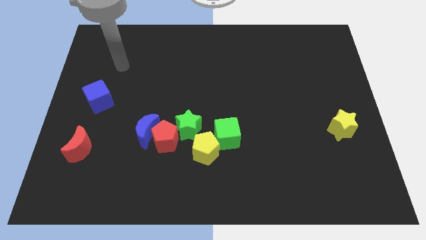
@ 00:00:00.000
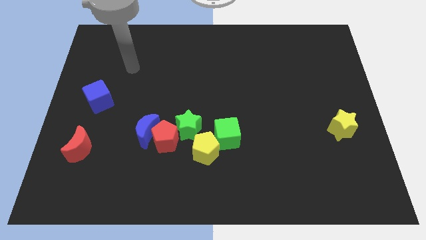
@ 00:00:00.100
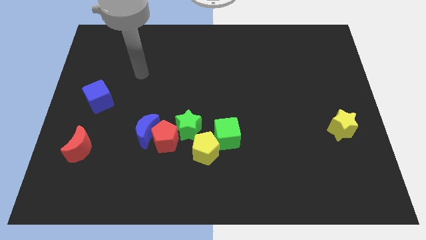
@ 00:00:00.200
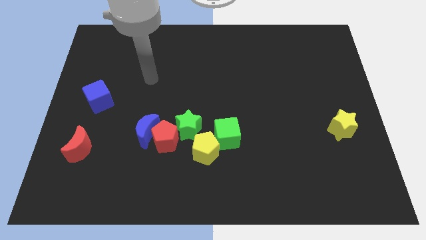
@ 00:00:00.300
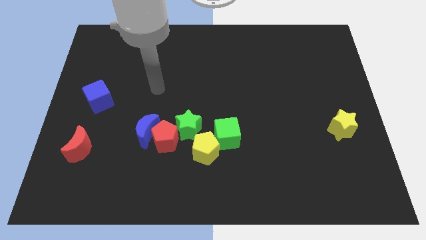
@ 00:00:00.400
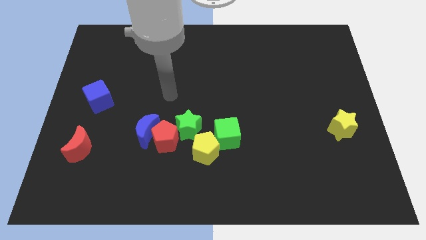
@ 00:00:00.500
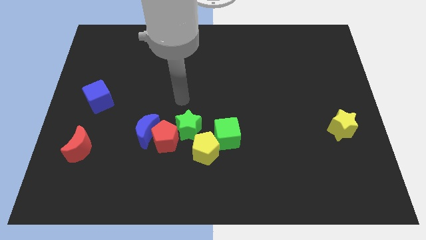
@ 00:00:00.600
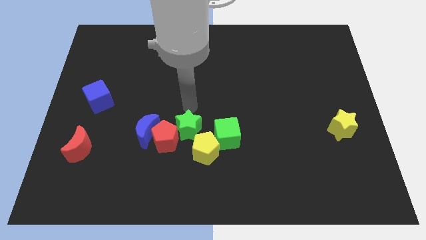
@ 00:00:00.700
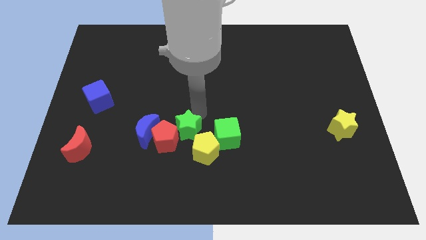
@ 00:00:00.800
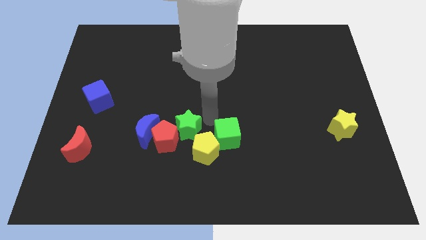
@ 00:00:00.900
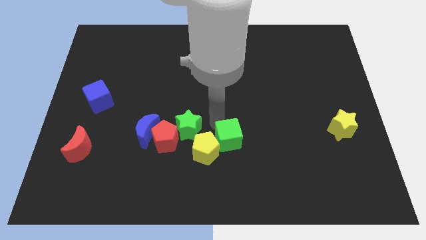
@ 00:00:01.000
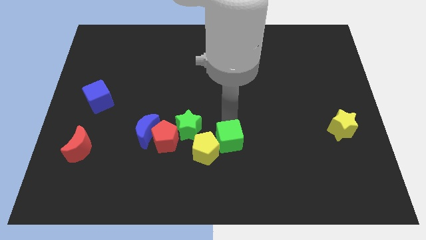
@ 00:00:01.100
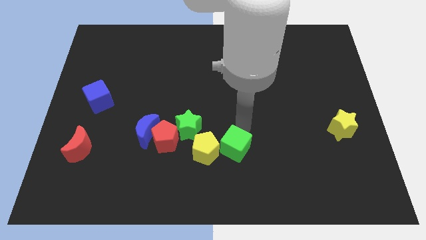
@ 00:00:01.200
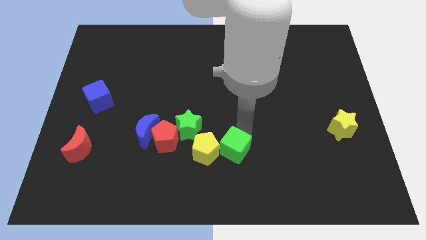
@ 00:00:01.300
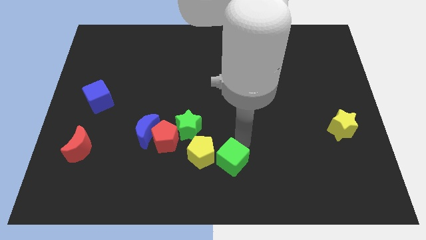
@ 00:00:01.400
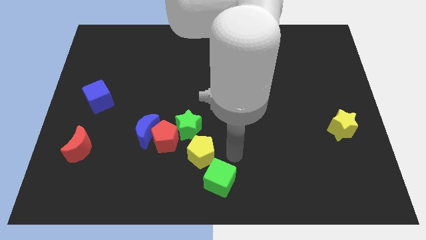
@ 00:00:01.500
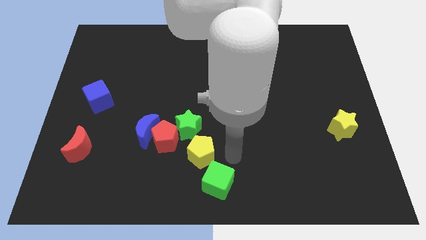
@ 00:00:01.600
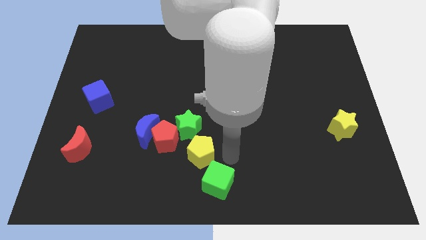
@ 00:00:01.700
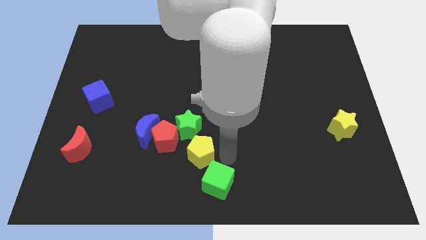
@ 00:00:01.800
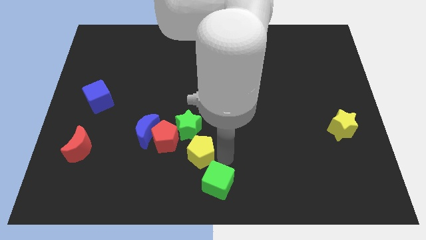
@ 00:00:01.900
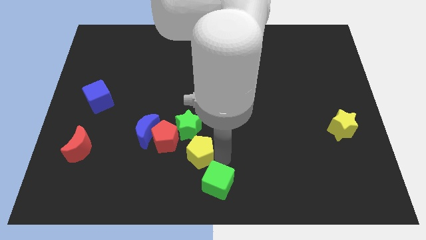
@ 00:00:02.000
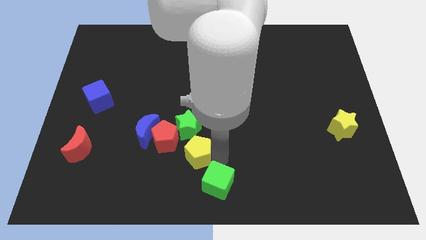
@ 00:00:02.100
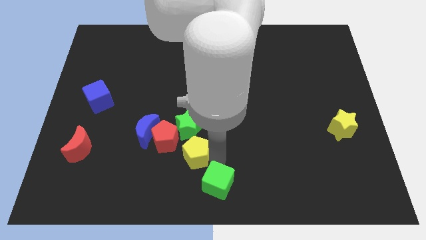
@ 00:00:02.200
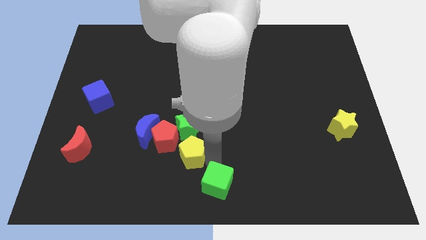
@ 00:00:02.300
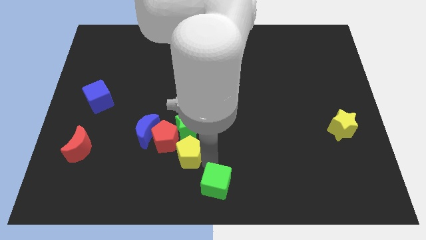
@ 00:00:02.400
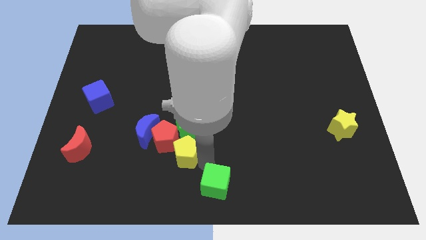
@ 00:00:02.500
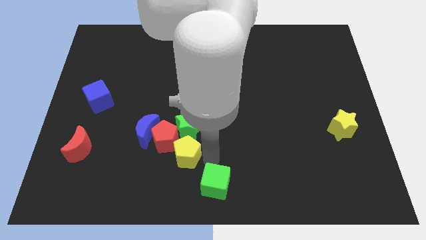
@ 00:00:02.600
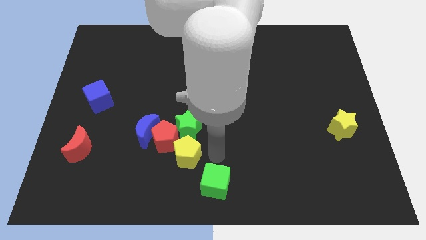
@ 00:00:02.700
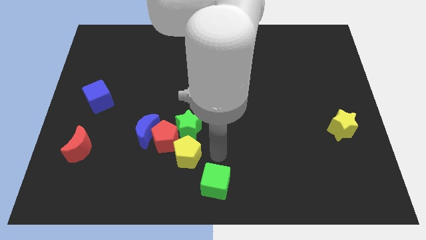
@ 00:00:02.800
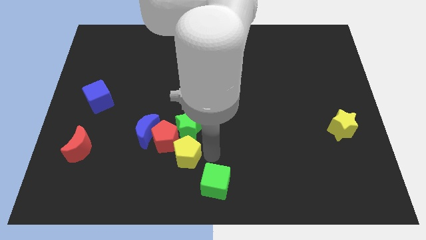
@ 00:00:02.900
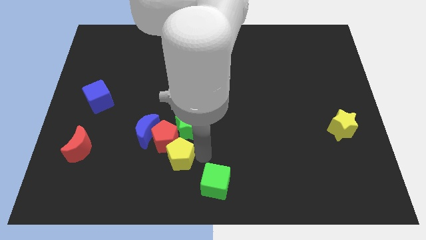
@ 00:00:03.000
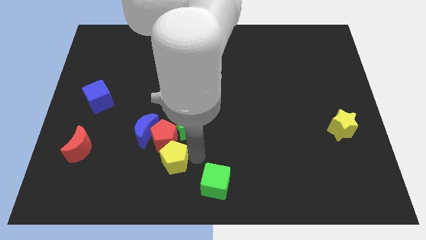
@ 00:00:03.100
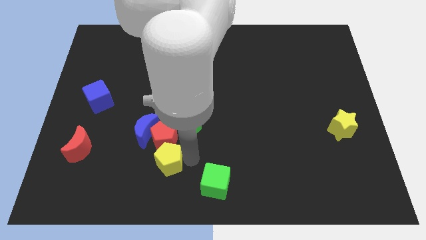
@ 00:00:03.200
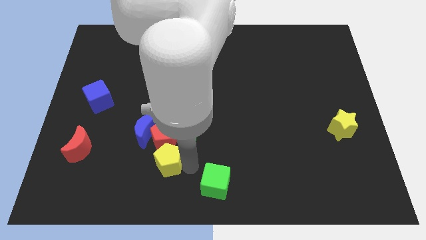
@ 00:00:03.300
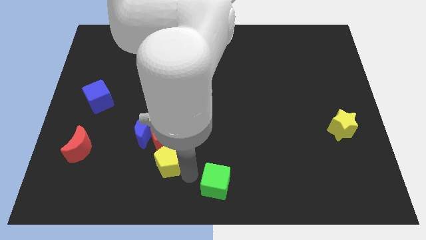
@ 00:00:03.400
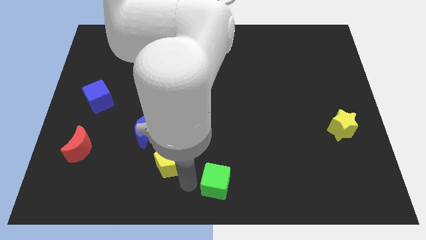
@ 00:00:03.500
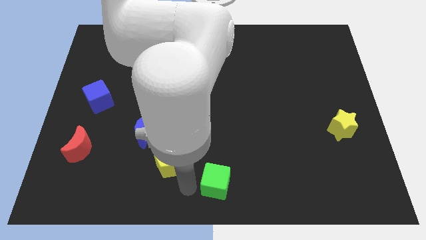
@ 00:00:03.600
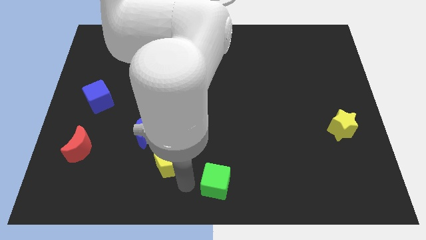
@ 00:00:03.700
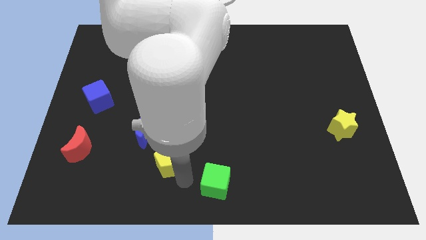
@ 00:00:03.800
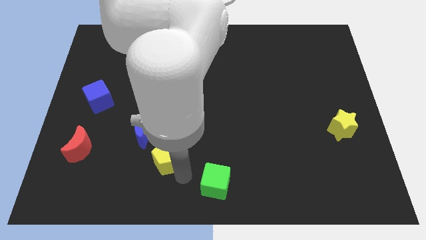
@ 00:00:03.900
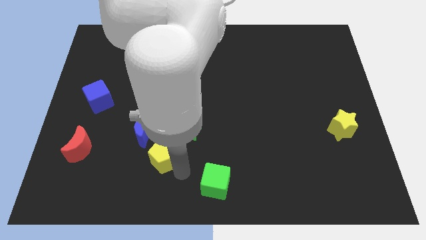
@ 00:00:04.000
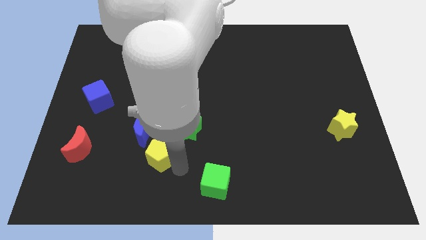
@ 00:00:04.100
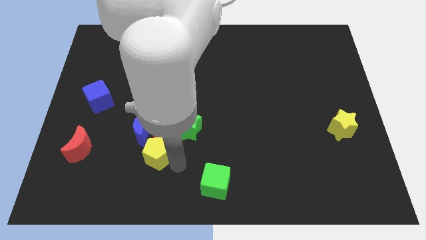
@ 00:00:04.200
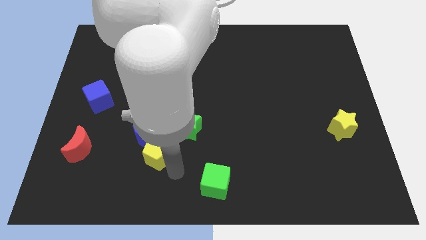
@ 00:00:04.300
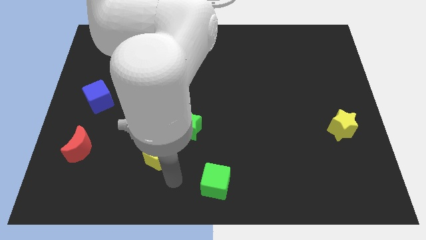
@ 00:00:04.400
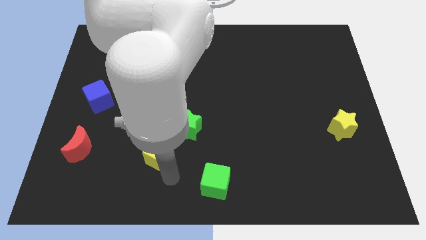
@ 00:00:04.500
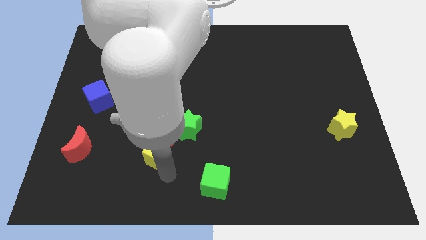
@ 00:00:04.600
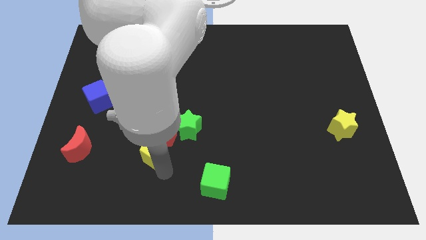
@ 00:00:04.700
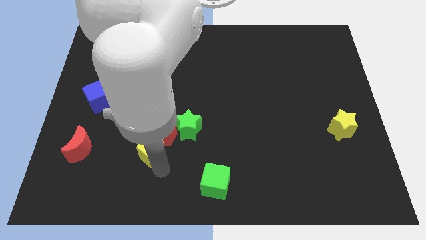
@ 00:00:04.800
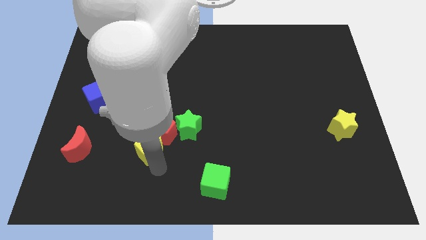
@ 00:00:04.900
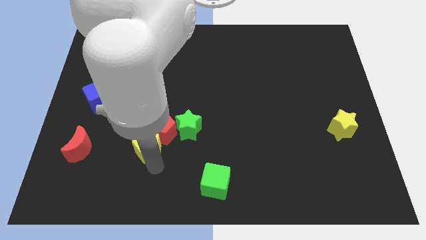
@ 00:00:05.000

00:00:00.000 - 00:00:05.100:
push the yellow pentagon towards the blue moon

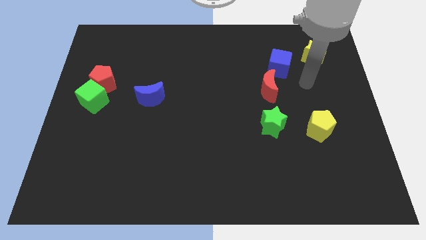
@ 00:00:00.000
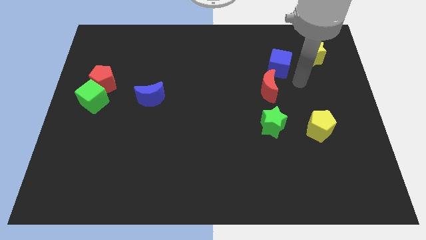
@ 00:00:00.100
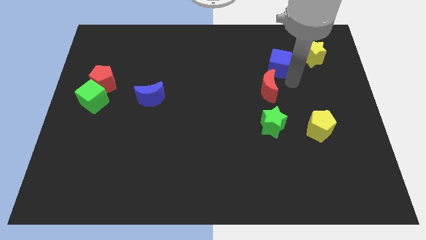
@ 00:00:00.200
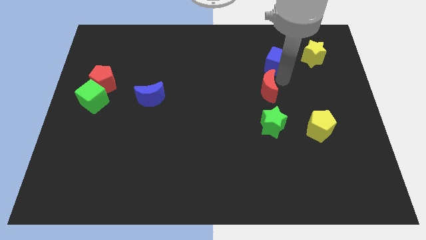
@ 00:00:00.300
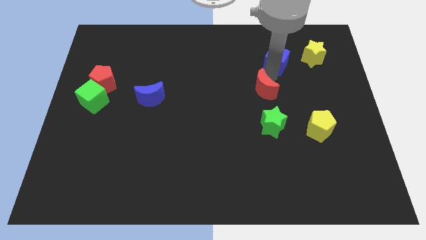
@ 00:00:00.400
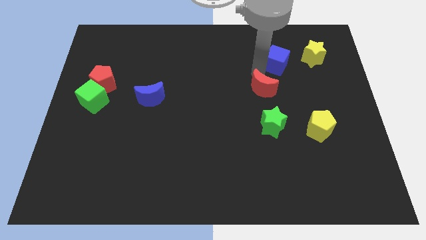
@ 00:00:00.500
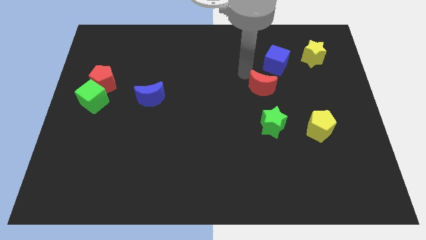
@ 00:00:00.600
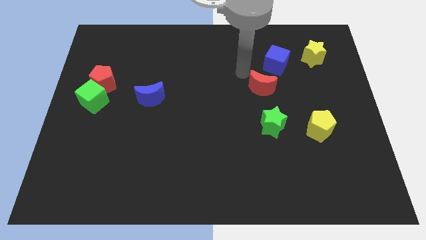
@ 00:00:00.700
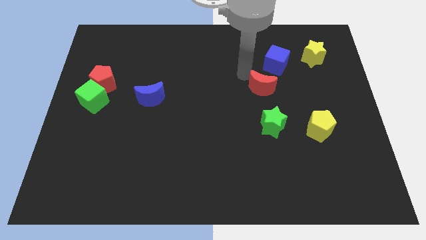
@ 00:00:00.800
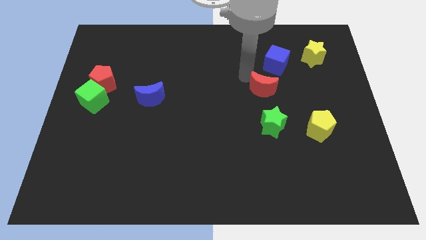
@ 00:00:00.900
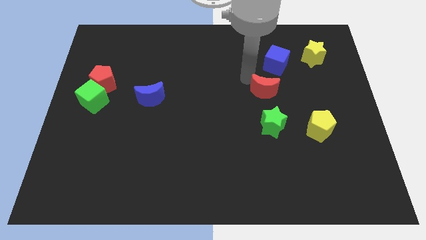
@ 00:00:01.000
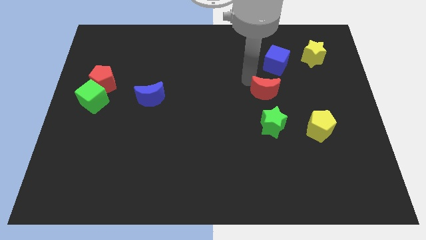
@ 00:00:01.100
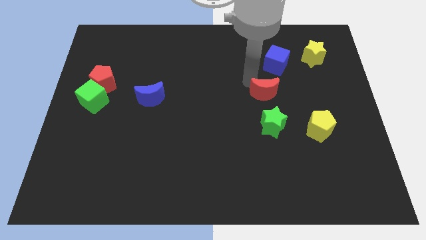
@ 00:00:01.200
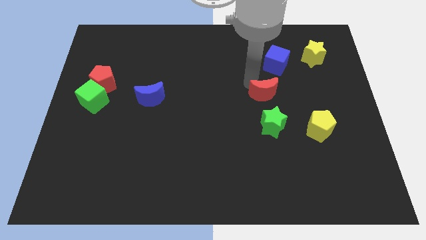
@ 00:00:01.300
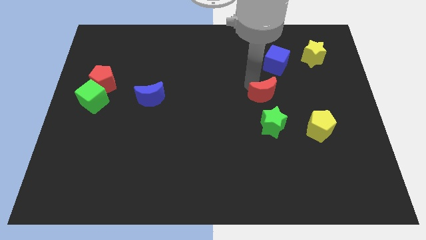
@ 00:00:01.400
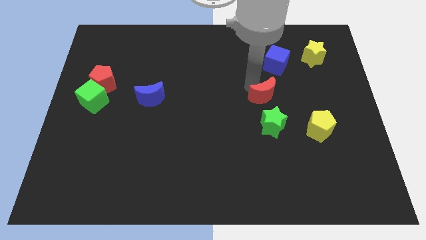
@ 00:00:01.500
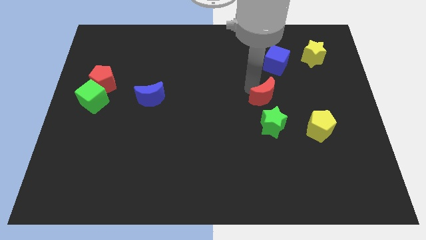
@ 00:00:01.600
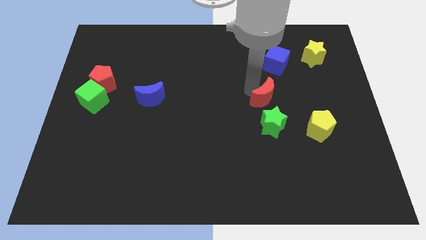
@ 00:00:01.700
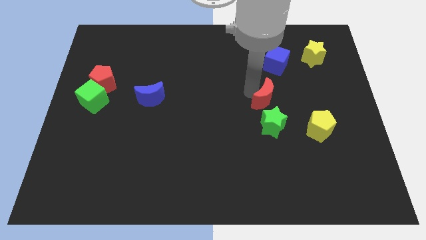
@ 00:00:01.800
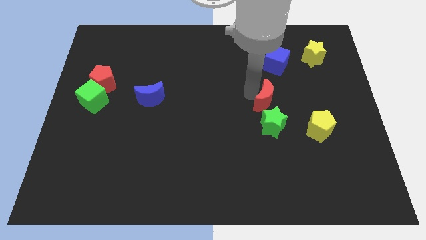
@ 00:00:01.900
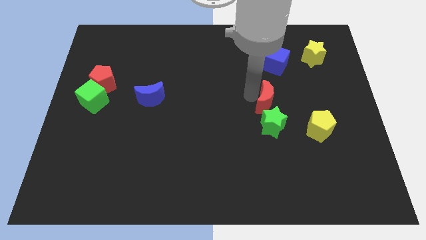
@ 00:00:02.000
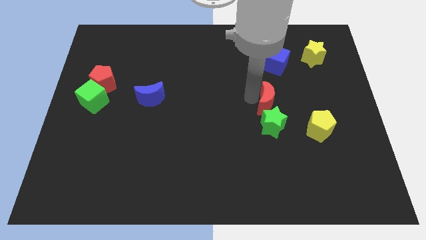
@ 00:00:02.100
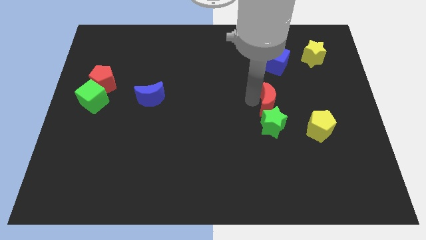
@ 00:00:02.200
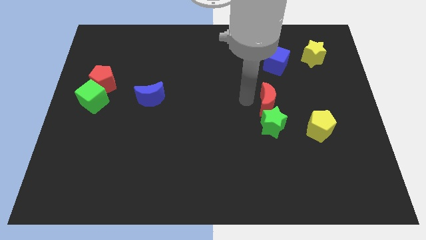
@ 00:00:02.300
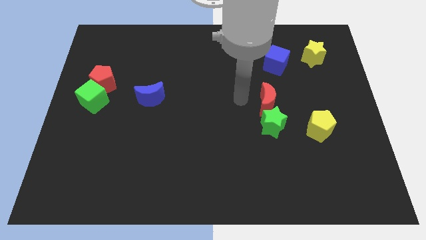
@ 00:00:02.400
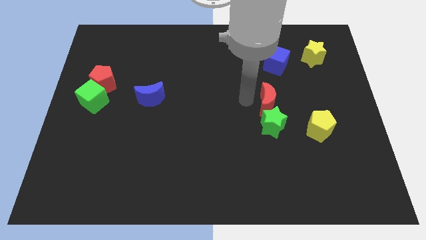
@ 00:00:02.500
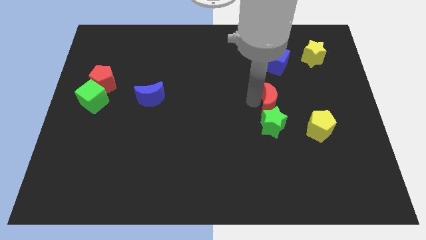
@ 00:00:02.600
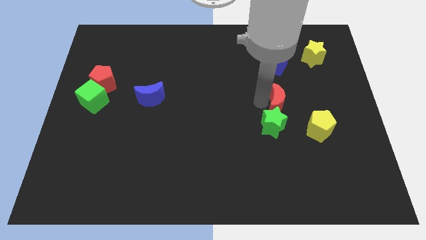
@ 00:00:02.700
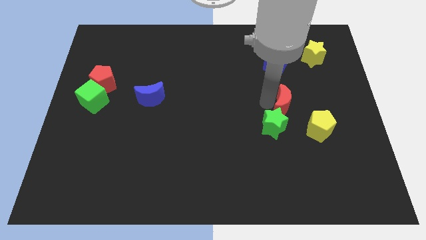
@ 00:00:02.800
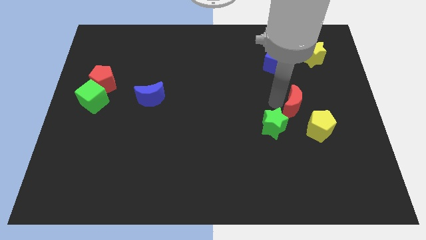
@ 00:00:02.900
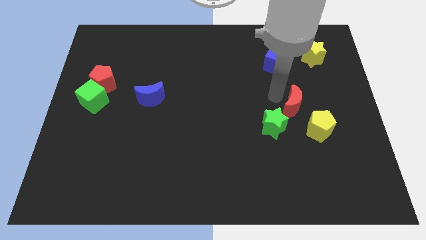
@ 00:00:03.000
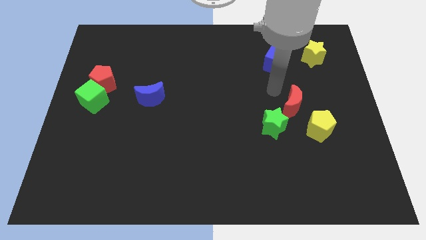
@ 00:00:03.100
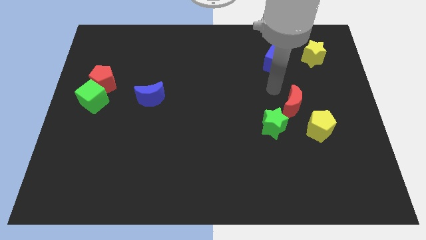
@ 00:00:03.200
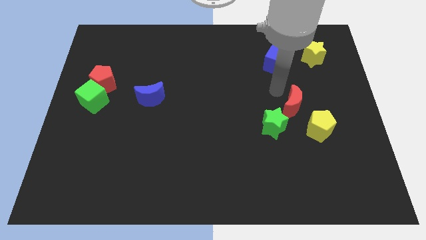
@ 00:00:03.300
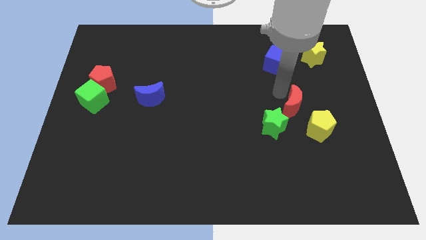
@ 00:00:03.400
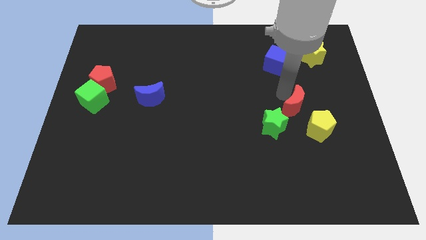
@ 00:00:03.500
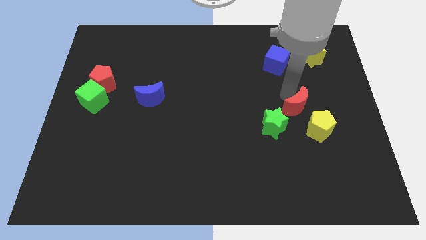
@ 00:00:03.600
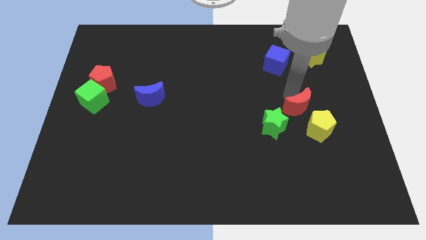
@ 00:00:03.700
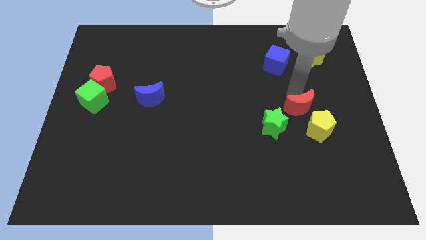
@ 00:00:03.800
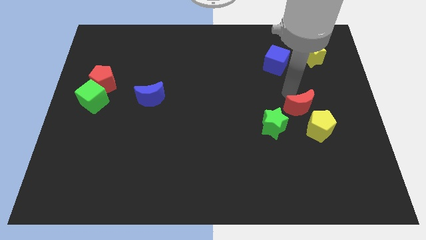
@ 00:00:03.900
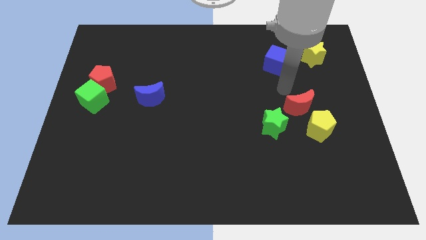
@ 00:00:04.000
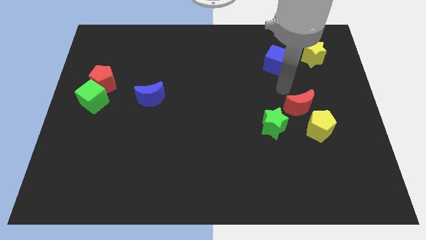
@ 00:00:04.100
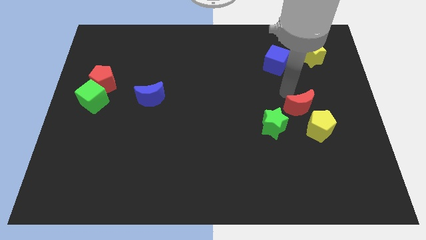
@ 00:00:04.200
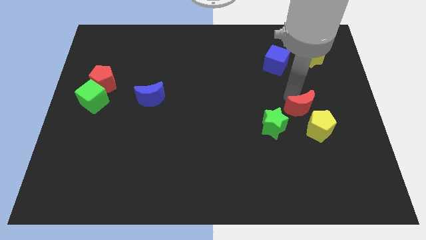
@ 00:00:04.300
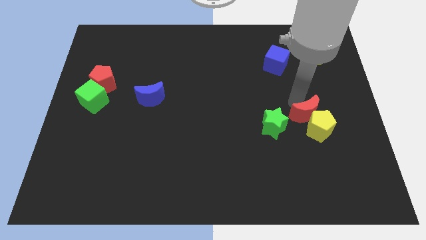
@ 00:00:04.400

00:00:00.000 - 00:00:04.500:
slide the red moon to the yellow pentagon
